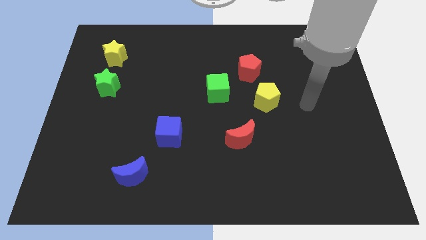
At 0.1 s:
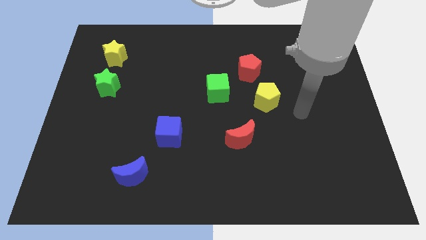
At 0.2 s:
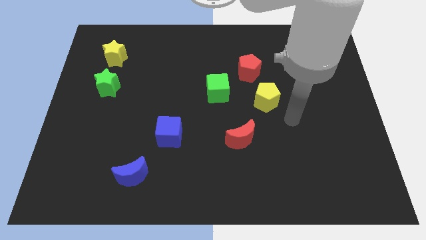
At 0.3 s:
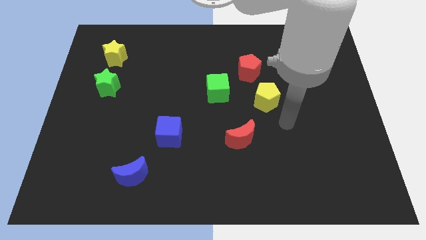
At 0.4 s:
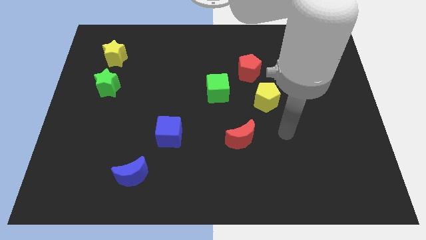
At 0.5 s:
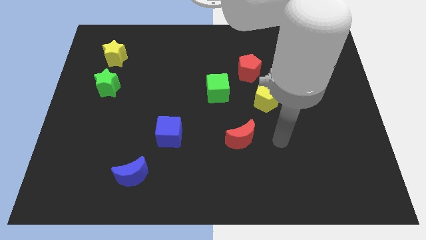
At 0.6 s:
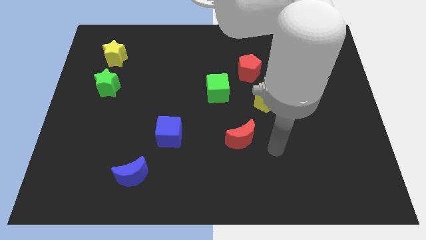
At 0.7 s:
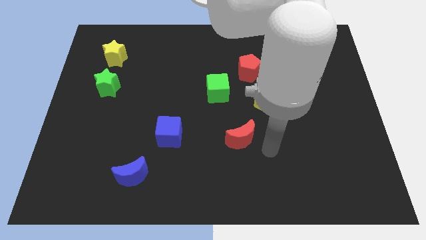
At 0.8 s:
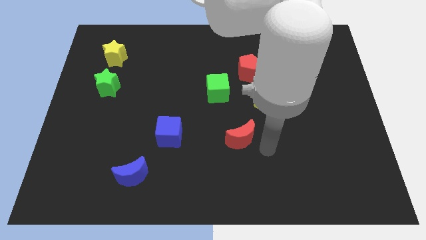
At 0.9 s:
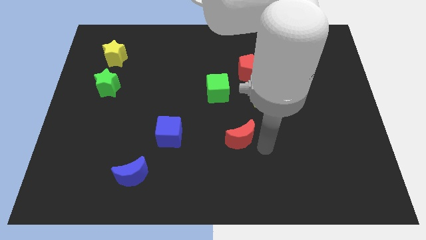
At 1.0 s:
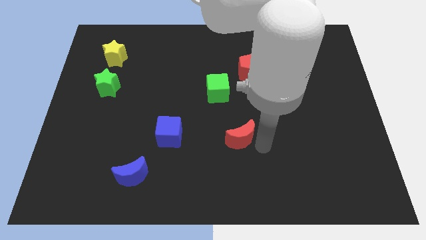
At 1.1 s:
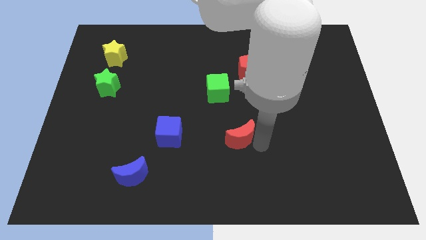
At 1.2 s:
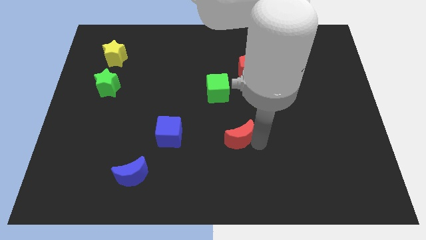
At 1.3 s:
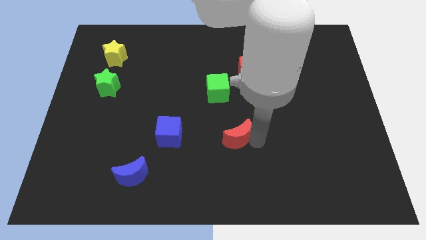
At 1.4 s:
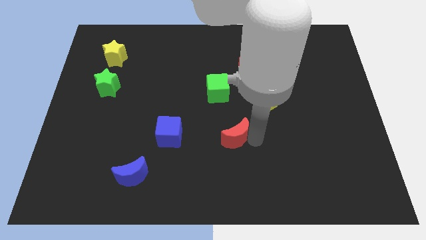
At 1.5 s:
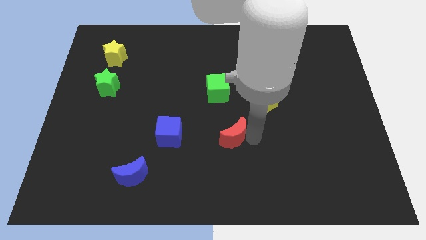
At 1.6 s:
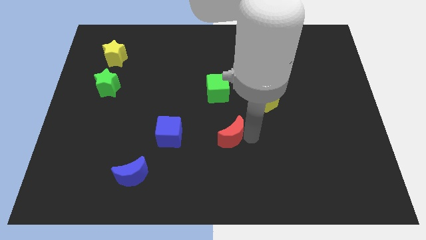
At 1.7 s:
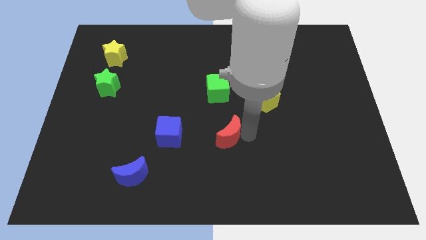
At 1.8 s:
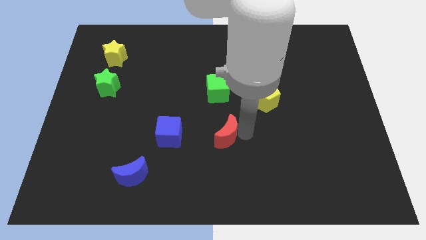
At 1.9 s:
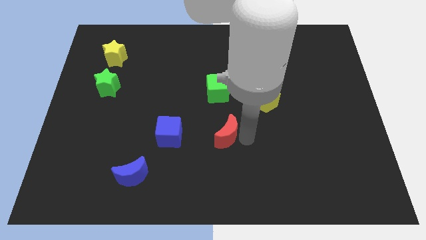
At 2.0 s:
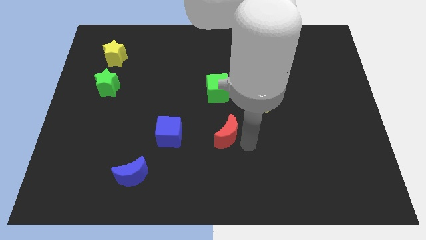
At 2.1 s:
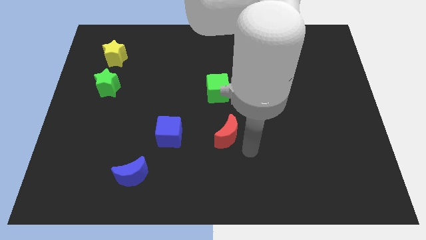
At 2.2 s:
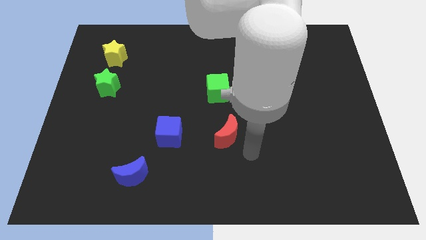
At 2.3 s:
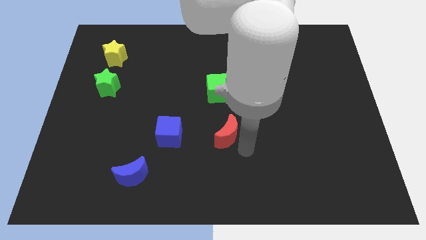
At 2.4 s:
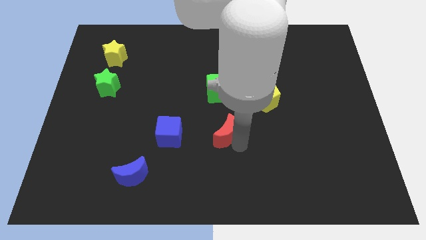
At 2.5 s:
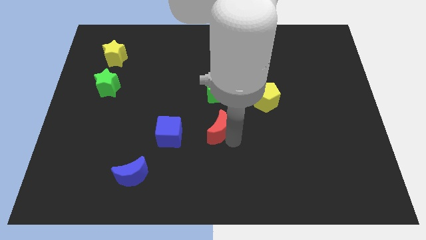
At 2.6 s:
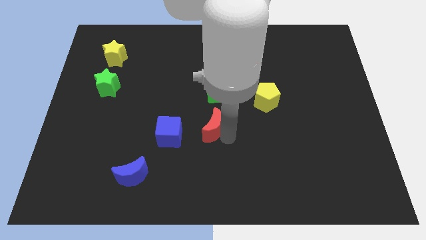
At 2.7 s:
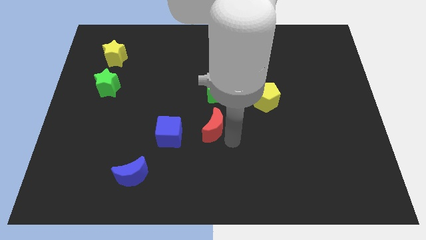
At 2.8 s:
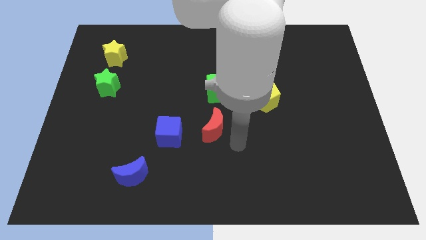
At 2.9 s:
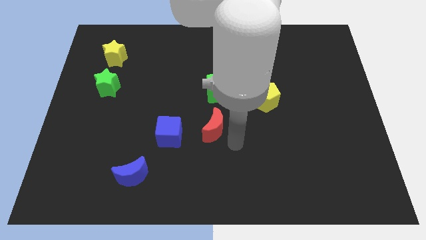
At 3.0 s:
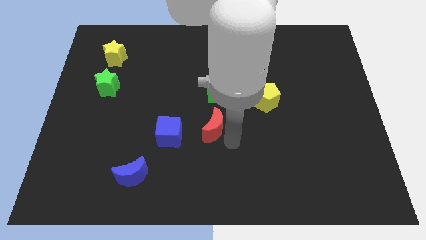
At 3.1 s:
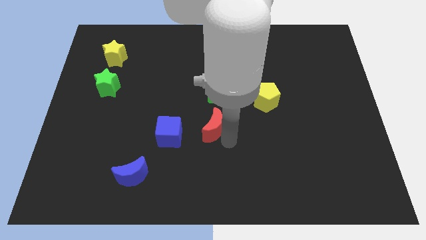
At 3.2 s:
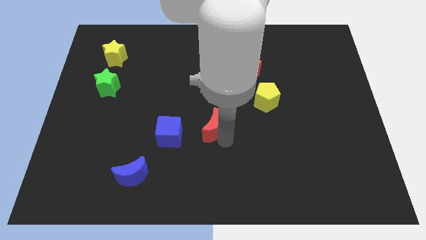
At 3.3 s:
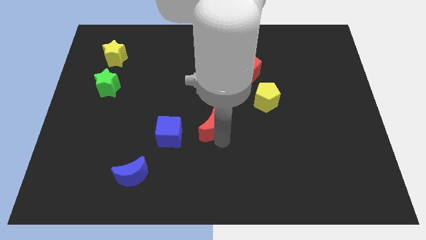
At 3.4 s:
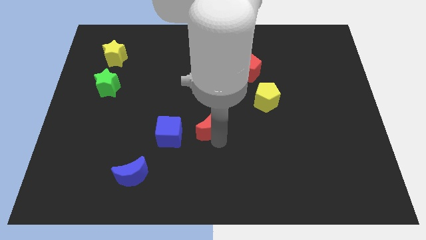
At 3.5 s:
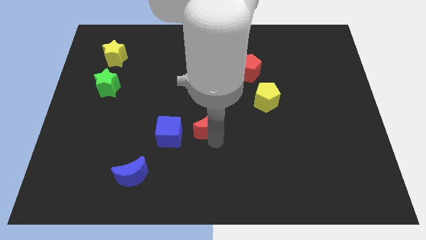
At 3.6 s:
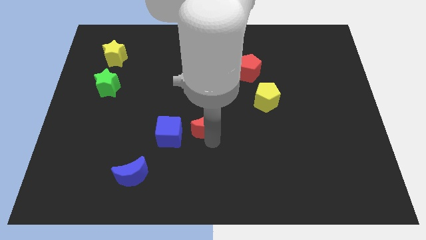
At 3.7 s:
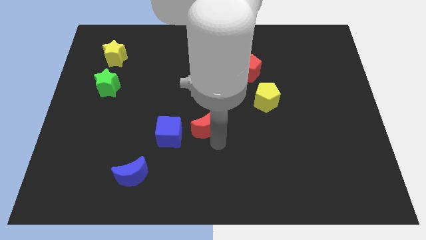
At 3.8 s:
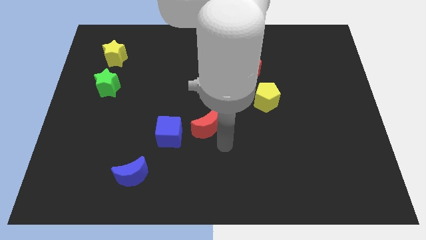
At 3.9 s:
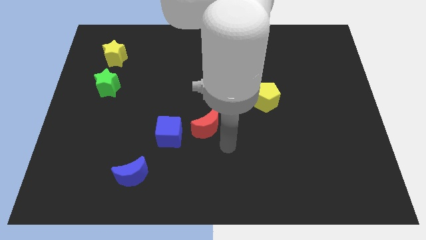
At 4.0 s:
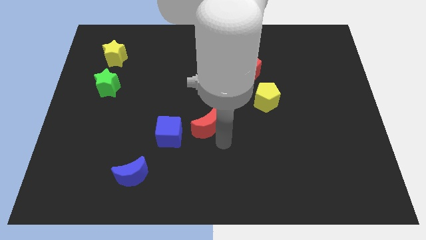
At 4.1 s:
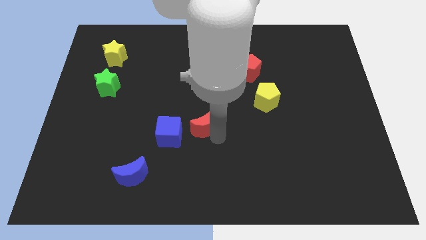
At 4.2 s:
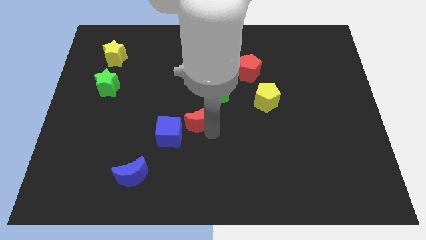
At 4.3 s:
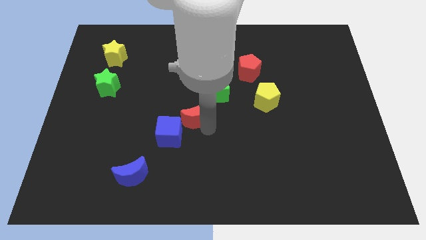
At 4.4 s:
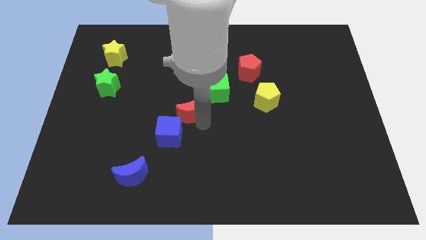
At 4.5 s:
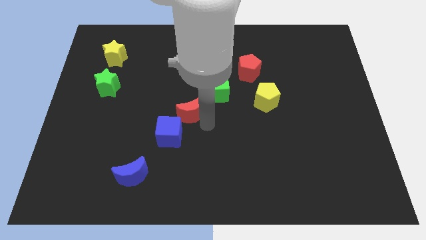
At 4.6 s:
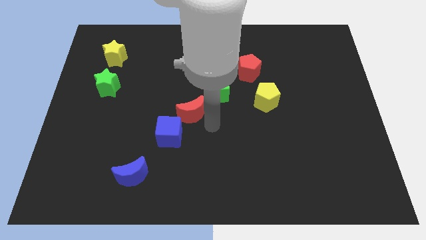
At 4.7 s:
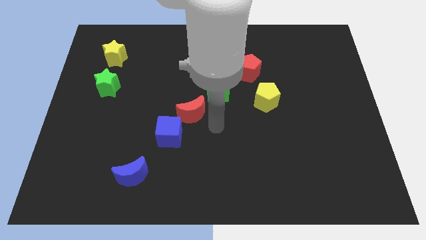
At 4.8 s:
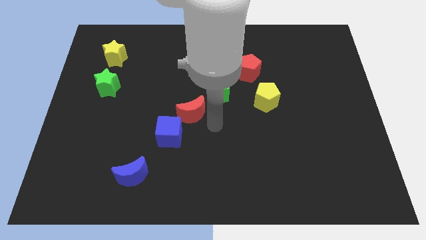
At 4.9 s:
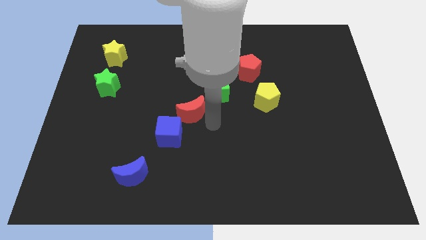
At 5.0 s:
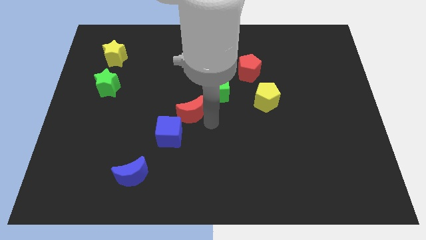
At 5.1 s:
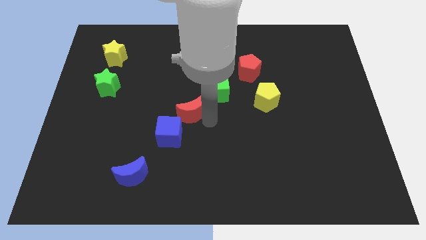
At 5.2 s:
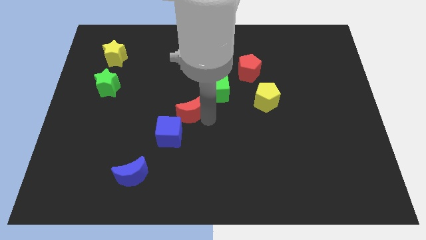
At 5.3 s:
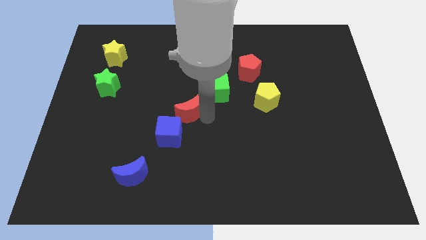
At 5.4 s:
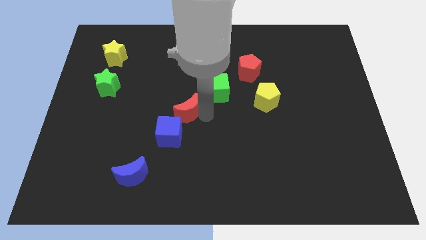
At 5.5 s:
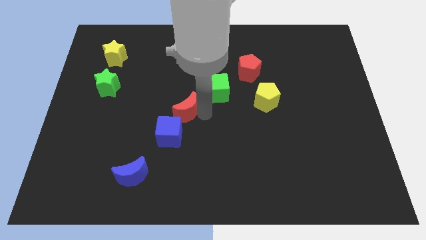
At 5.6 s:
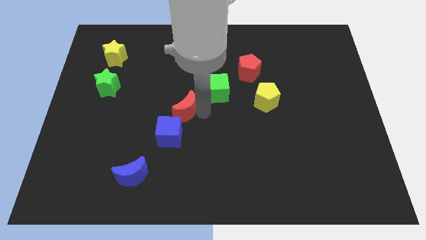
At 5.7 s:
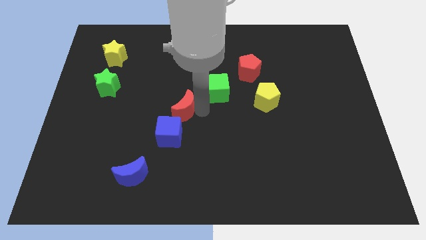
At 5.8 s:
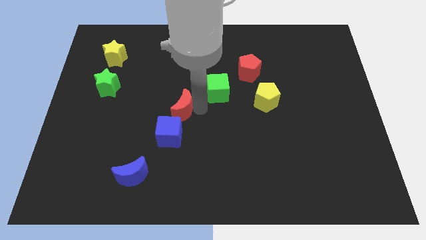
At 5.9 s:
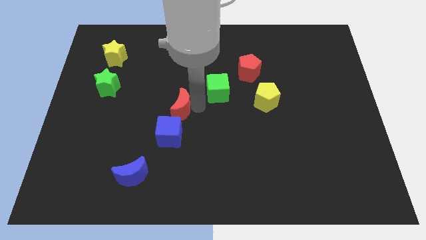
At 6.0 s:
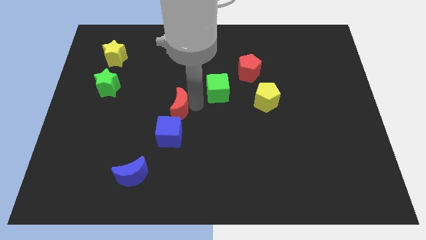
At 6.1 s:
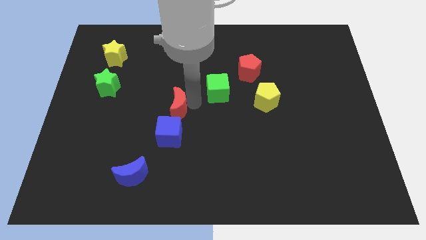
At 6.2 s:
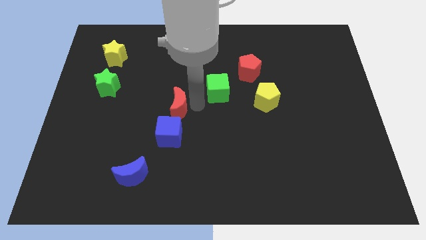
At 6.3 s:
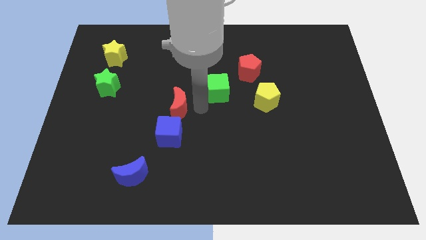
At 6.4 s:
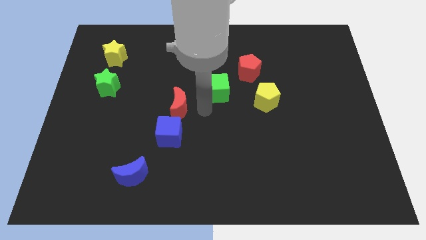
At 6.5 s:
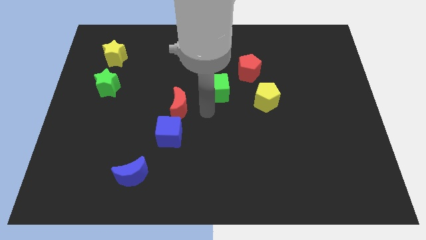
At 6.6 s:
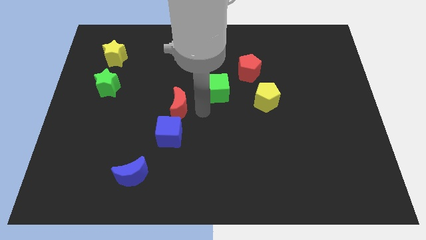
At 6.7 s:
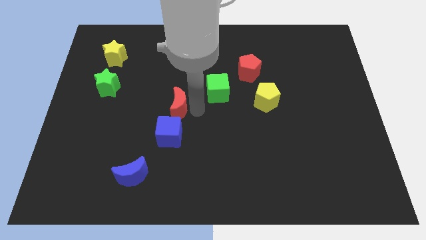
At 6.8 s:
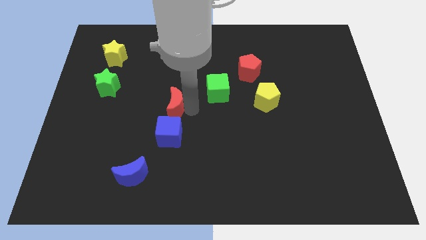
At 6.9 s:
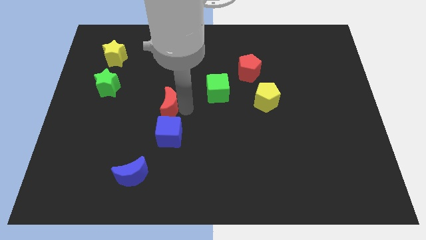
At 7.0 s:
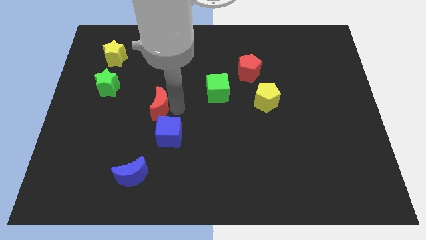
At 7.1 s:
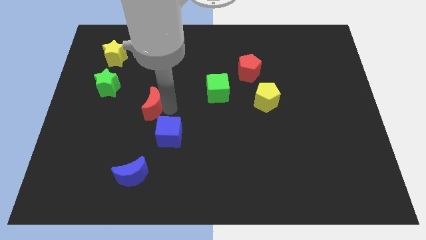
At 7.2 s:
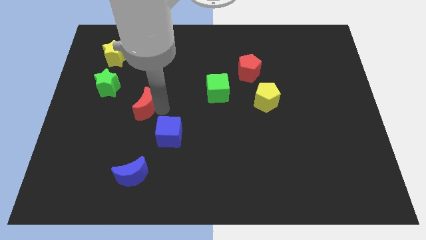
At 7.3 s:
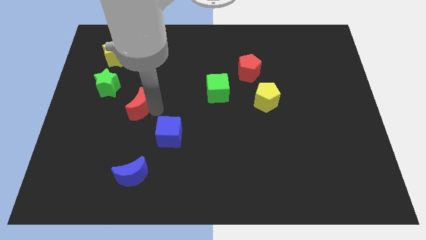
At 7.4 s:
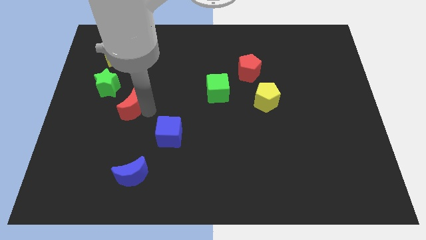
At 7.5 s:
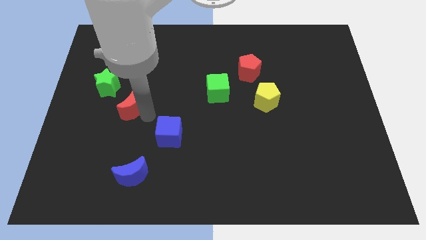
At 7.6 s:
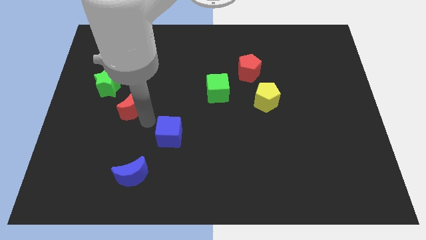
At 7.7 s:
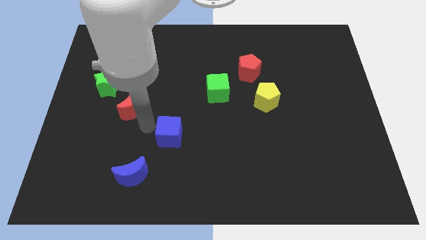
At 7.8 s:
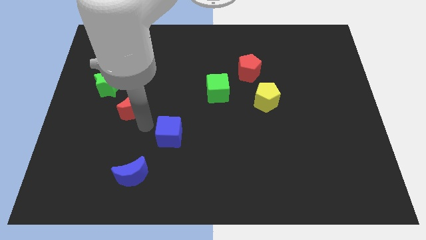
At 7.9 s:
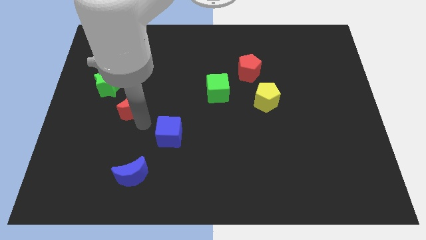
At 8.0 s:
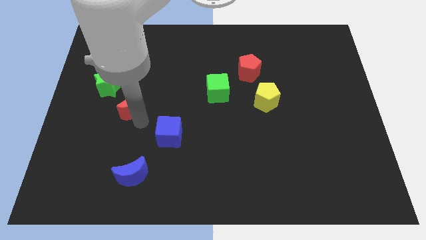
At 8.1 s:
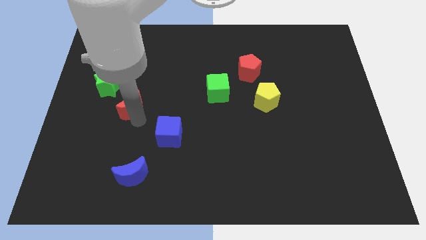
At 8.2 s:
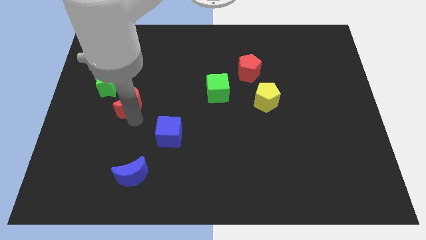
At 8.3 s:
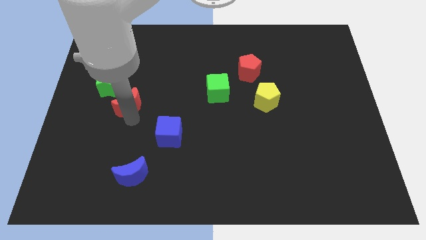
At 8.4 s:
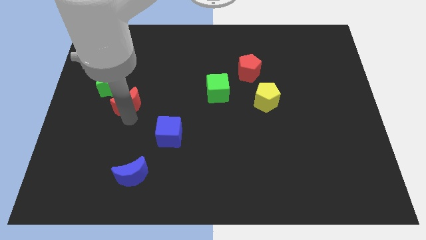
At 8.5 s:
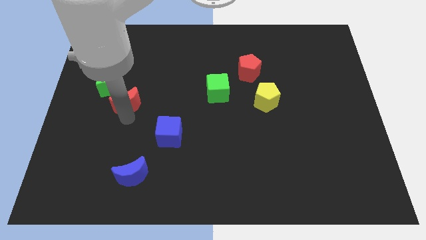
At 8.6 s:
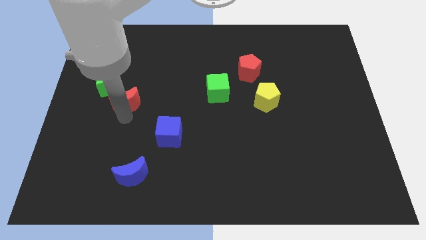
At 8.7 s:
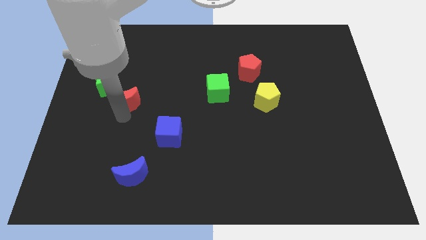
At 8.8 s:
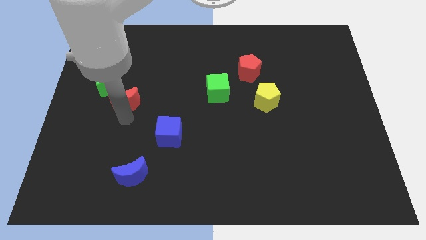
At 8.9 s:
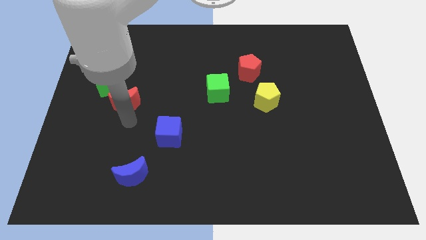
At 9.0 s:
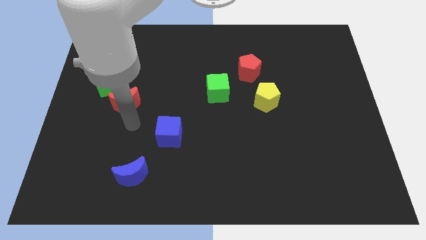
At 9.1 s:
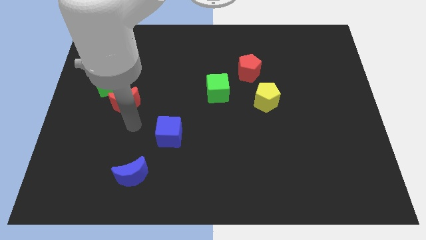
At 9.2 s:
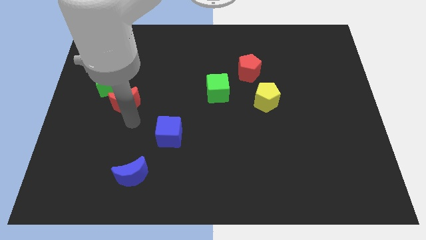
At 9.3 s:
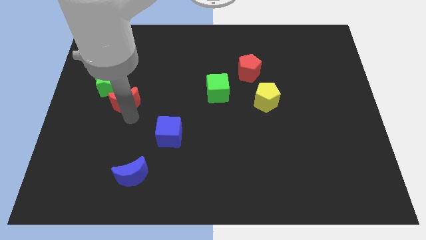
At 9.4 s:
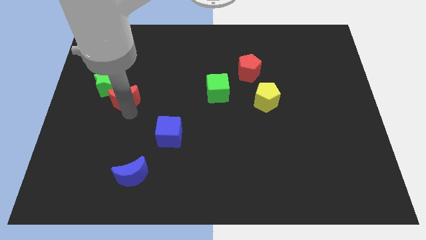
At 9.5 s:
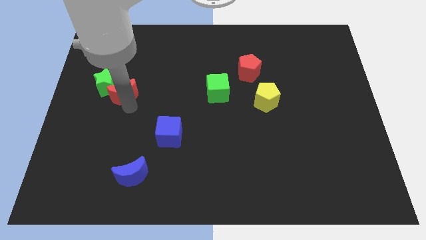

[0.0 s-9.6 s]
push the red moon next to the green star
